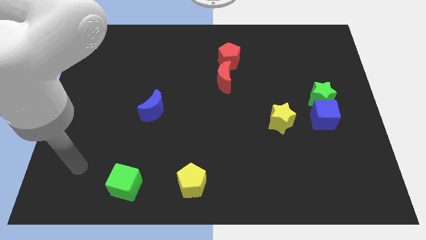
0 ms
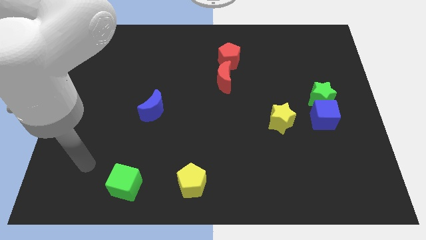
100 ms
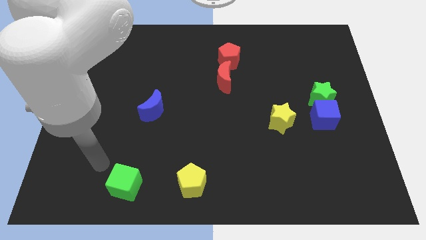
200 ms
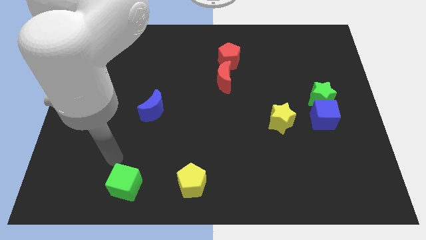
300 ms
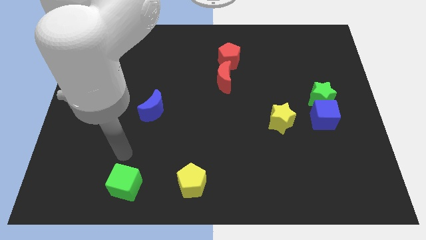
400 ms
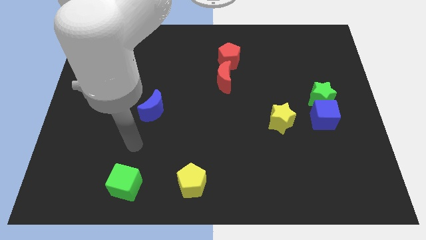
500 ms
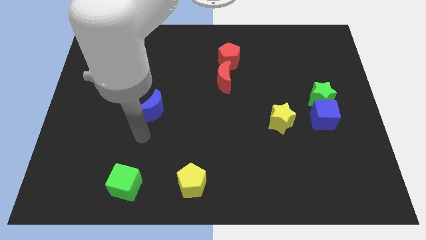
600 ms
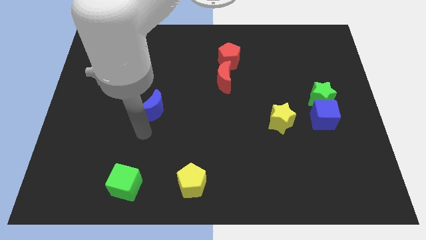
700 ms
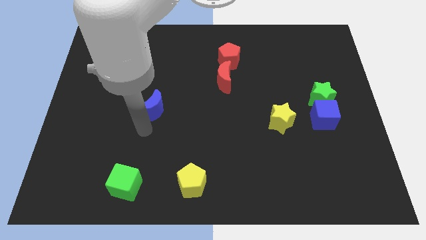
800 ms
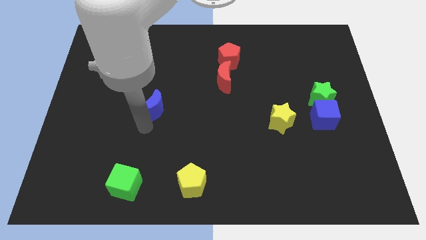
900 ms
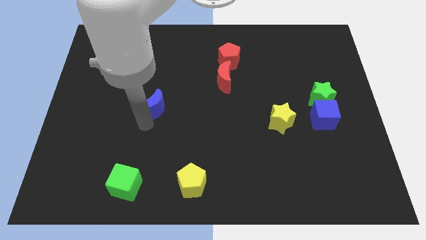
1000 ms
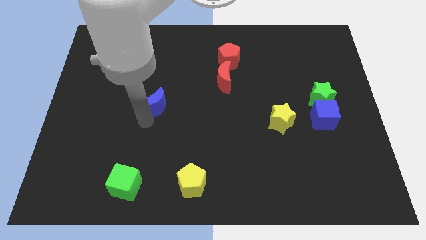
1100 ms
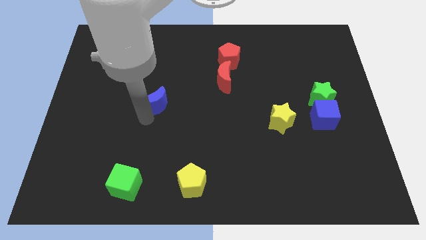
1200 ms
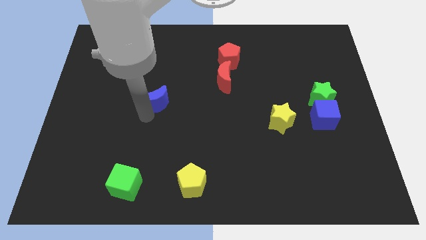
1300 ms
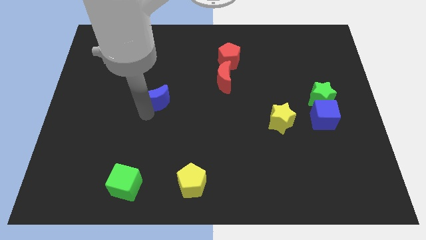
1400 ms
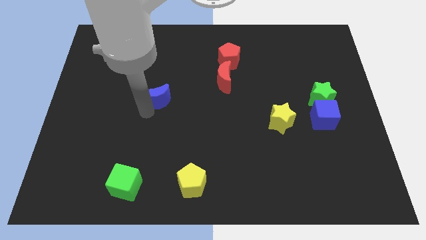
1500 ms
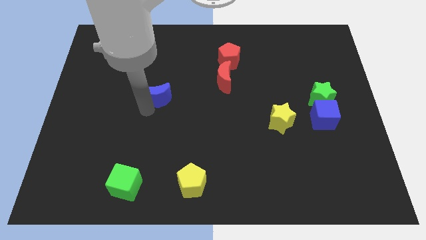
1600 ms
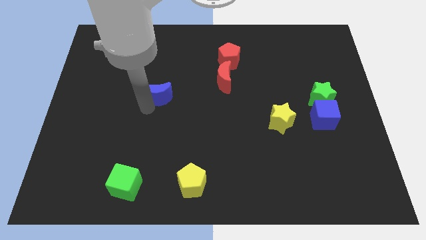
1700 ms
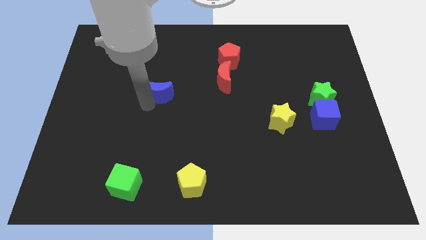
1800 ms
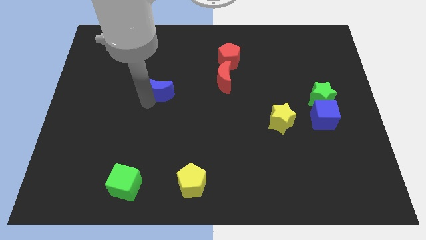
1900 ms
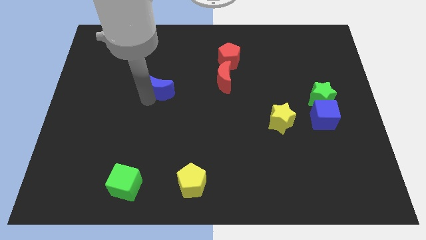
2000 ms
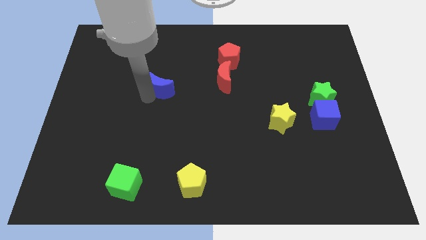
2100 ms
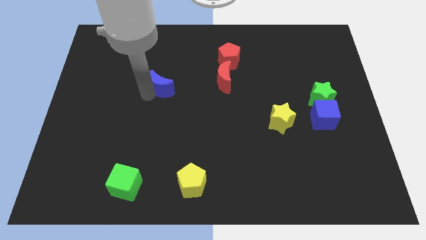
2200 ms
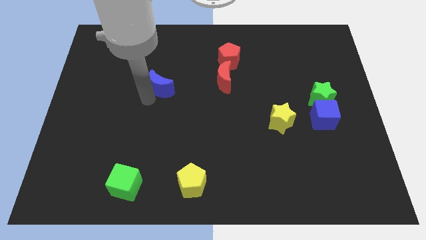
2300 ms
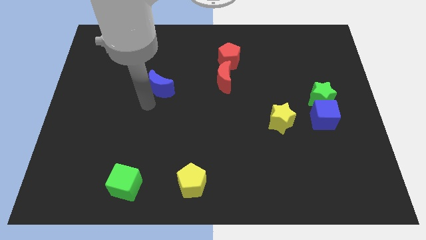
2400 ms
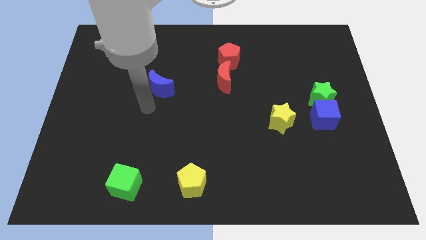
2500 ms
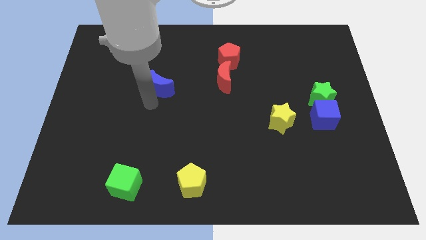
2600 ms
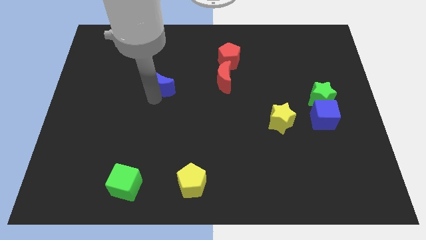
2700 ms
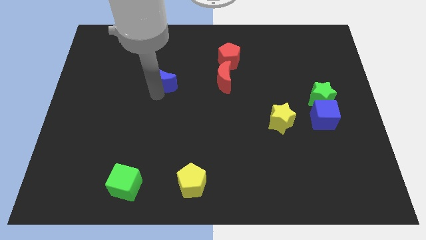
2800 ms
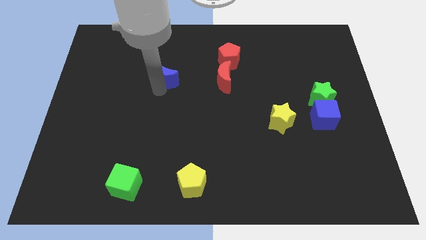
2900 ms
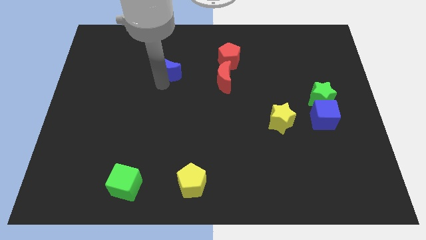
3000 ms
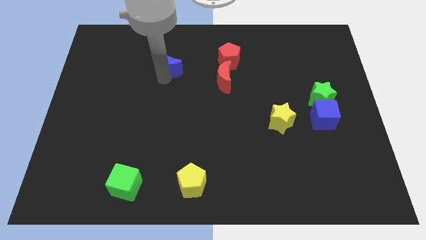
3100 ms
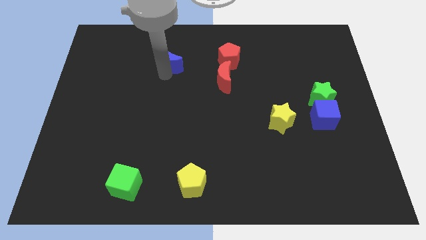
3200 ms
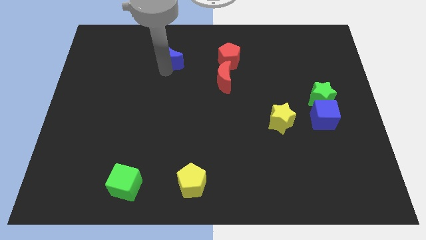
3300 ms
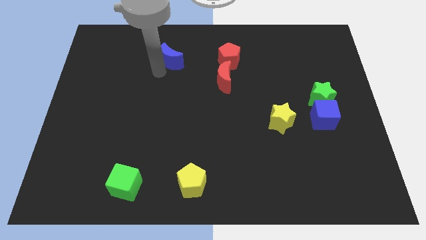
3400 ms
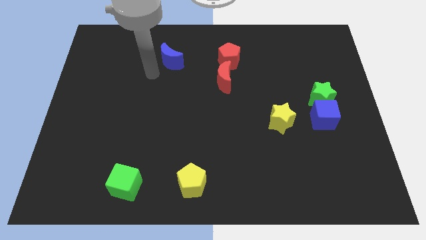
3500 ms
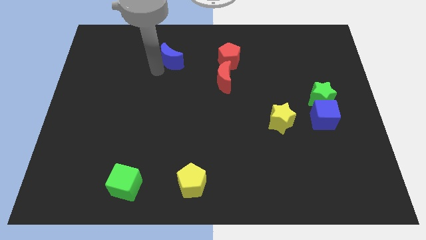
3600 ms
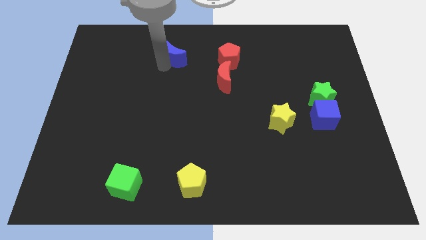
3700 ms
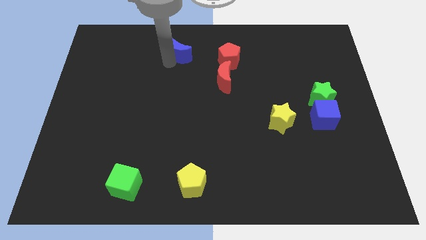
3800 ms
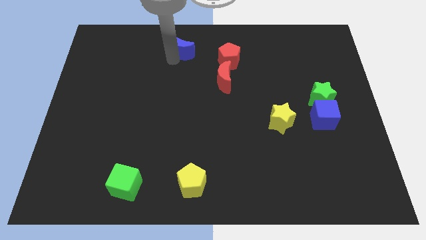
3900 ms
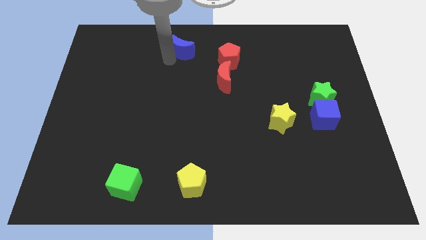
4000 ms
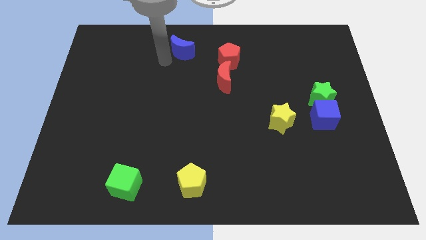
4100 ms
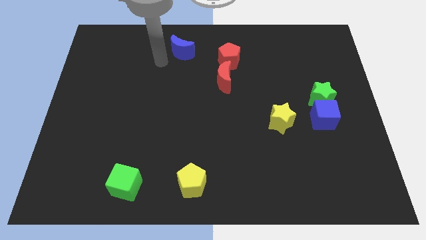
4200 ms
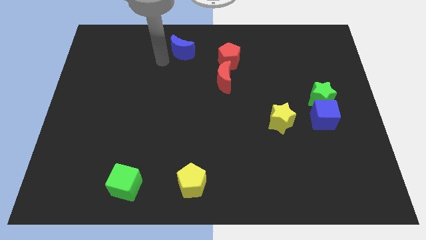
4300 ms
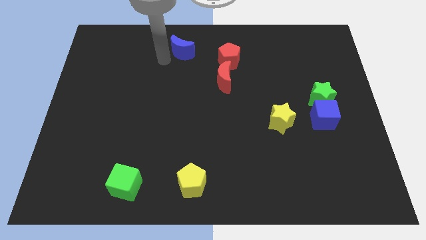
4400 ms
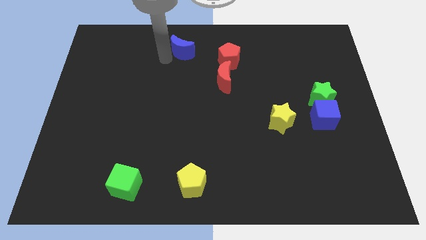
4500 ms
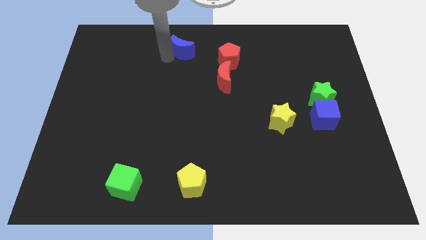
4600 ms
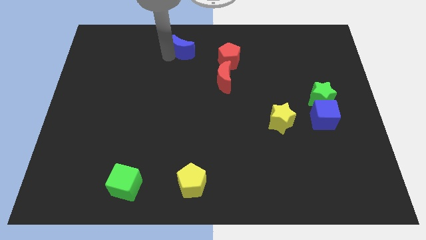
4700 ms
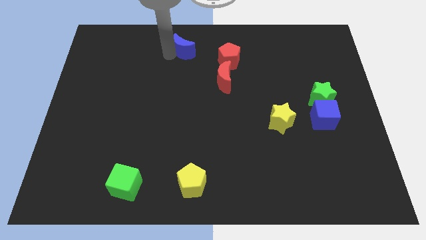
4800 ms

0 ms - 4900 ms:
put the blue moon to the top

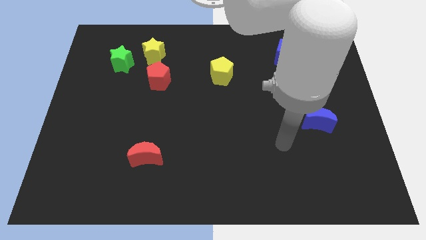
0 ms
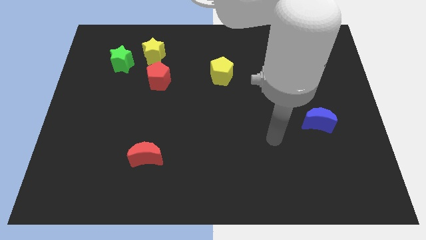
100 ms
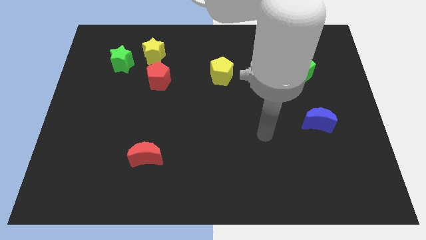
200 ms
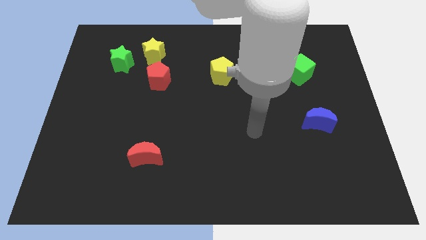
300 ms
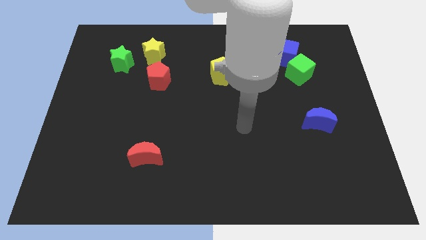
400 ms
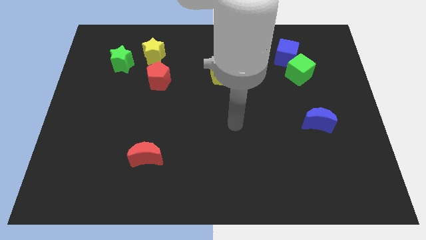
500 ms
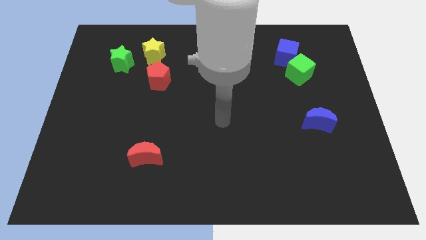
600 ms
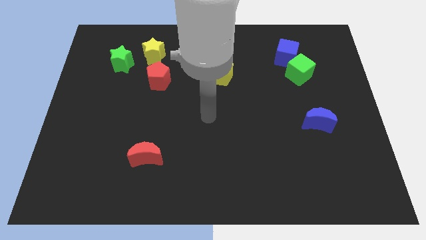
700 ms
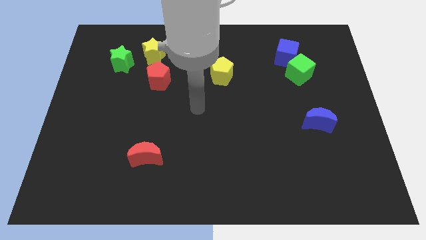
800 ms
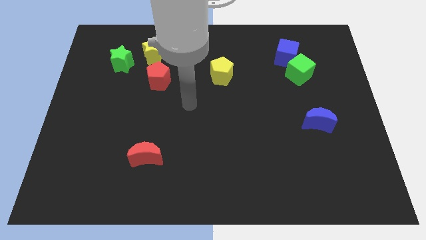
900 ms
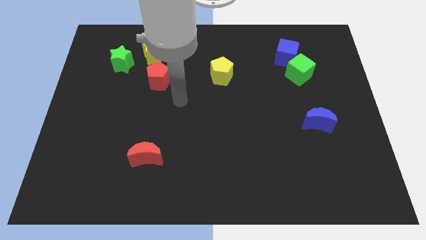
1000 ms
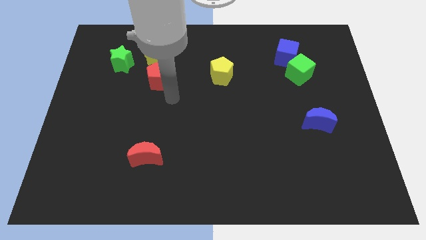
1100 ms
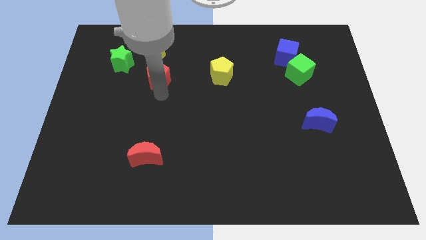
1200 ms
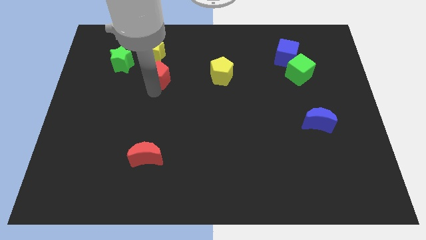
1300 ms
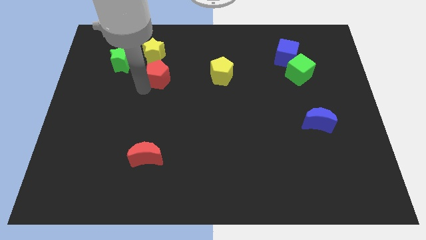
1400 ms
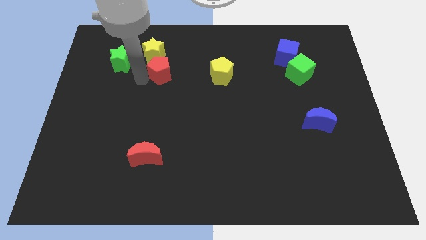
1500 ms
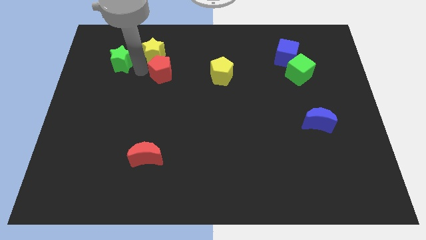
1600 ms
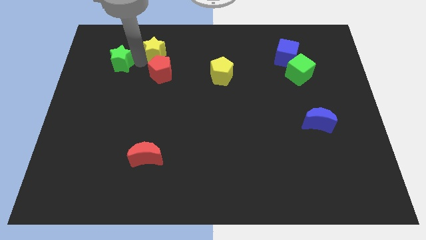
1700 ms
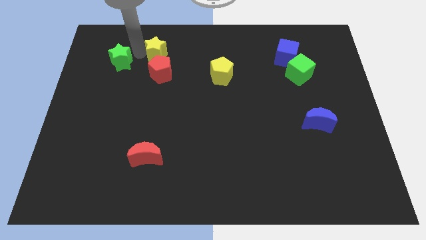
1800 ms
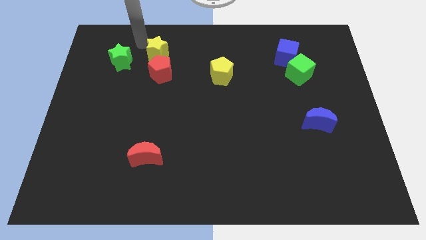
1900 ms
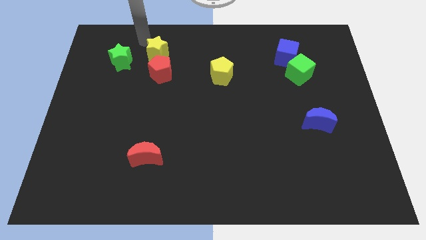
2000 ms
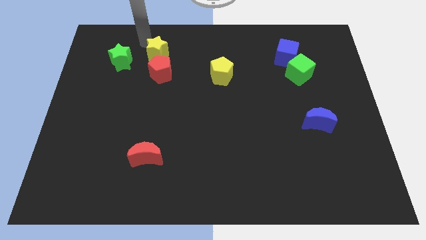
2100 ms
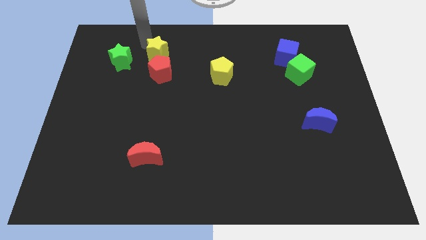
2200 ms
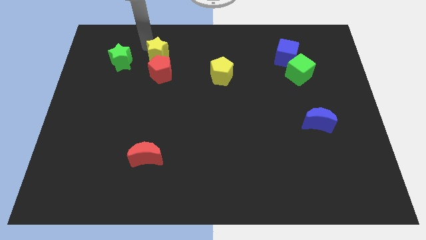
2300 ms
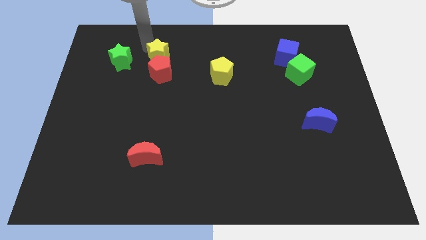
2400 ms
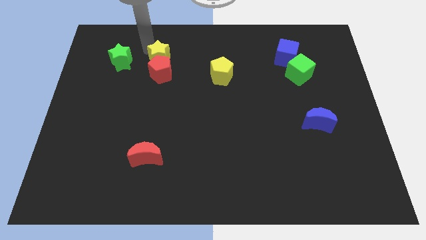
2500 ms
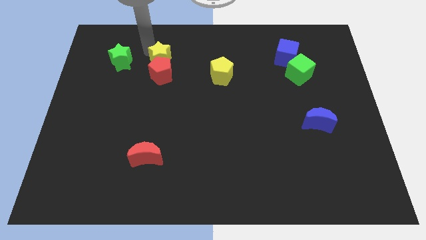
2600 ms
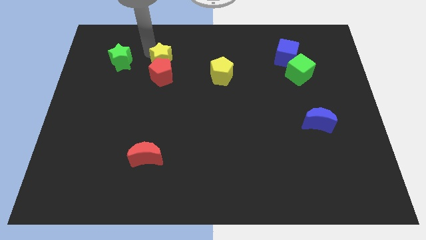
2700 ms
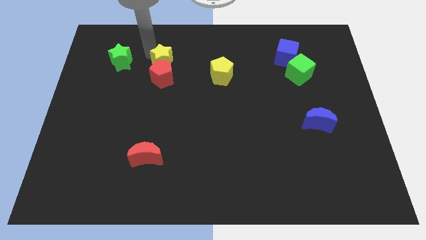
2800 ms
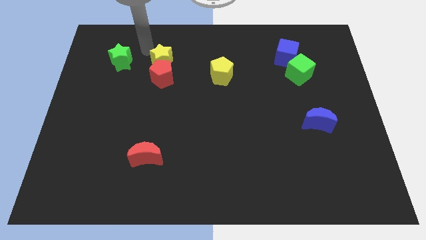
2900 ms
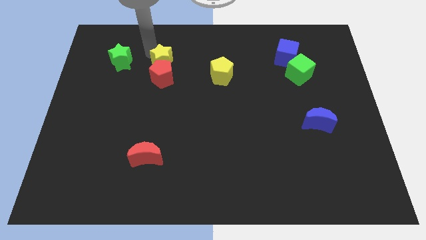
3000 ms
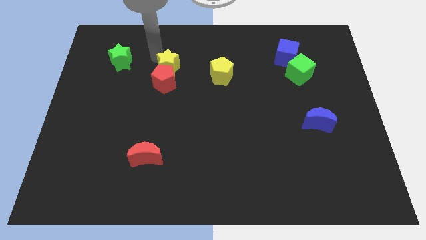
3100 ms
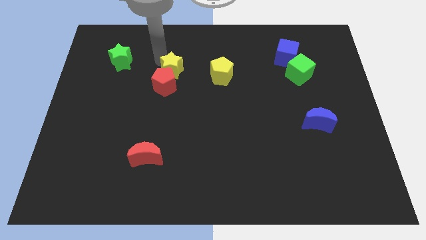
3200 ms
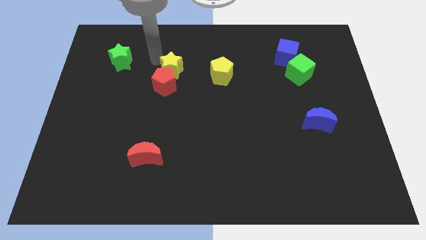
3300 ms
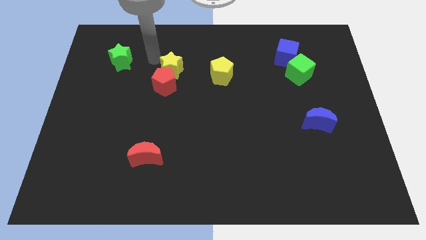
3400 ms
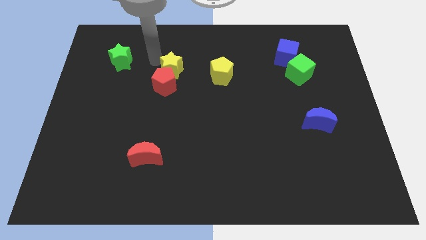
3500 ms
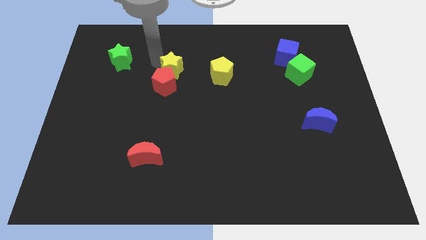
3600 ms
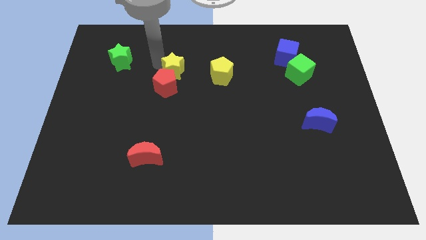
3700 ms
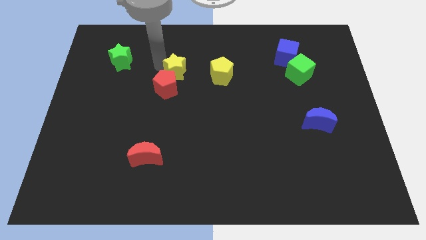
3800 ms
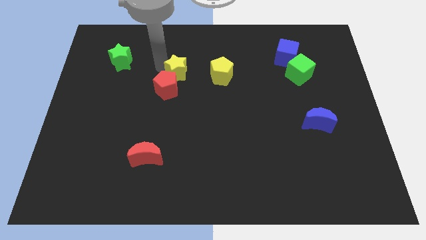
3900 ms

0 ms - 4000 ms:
put the yellow star to the center of the board
